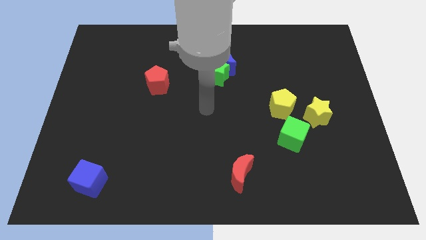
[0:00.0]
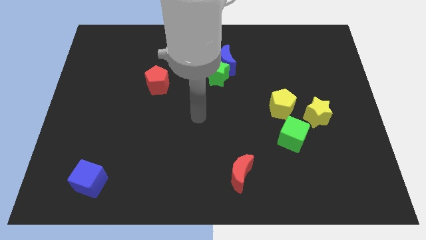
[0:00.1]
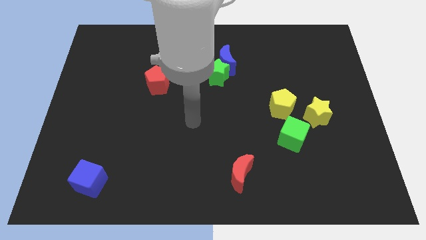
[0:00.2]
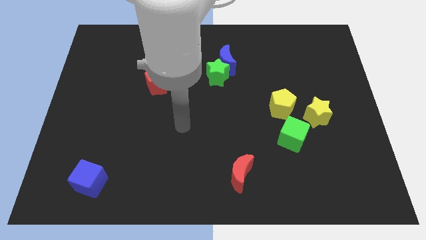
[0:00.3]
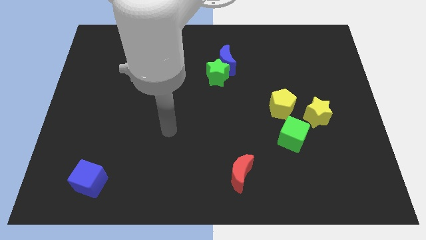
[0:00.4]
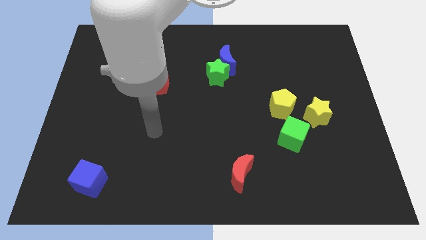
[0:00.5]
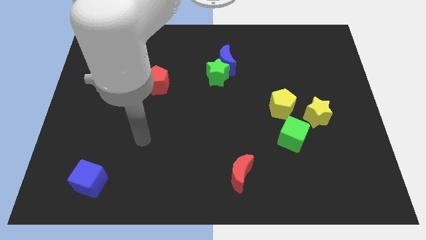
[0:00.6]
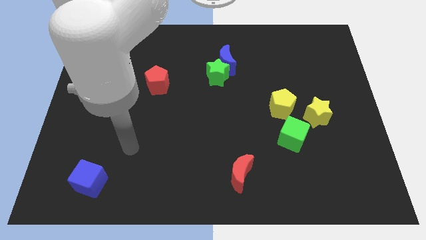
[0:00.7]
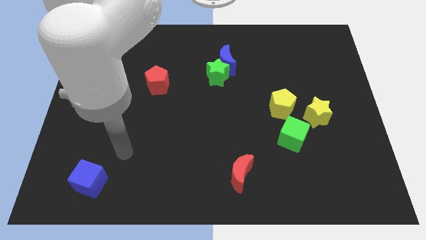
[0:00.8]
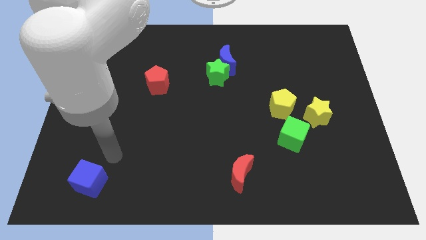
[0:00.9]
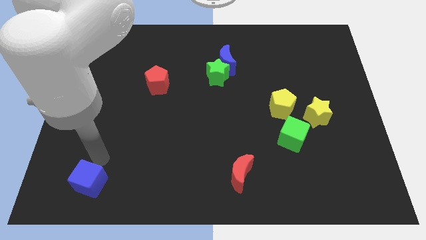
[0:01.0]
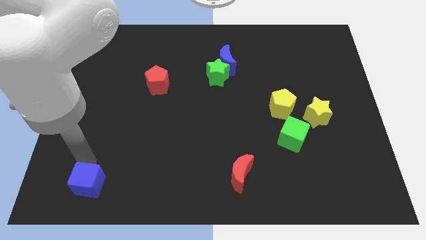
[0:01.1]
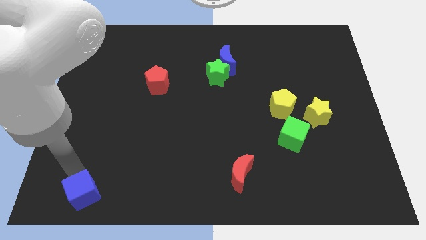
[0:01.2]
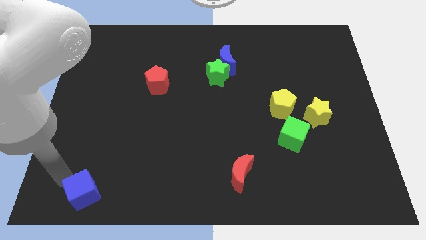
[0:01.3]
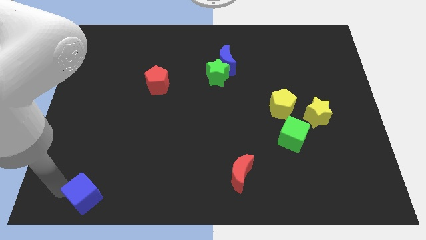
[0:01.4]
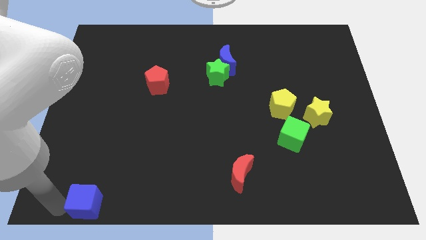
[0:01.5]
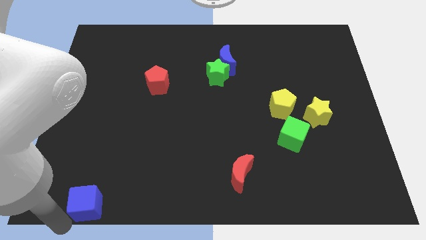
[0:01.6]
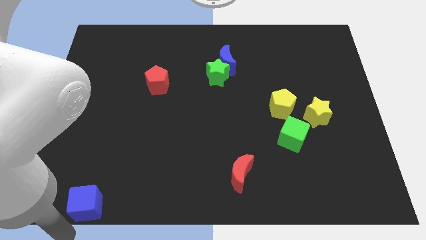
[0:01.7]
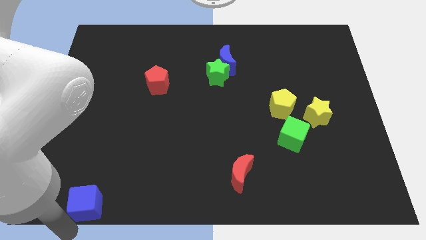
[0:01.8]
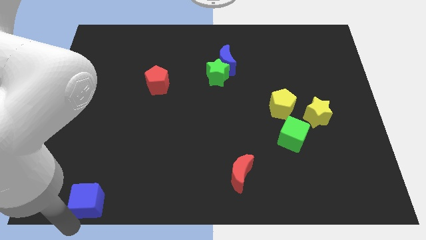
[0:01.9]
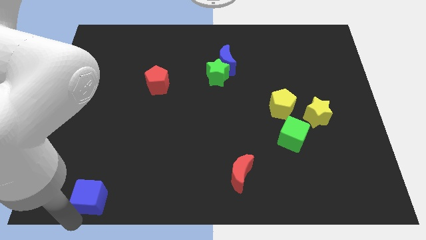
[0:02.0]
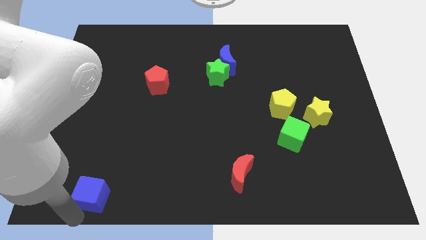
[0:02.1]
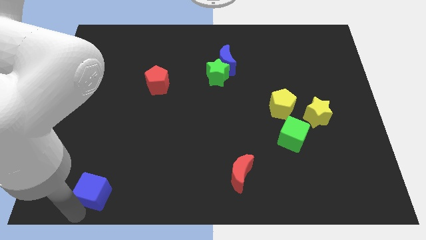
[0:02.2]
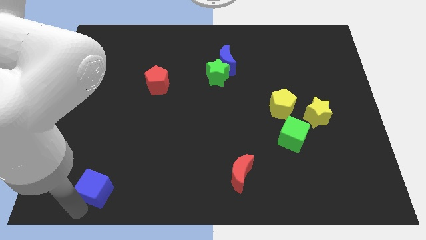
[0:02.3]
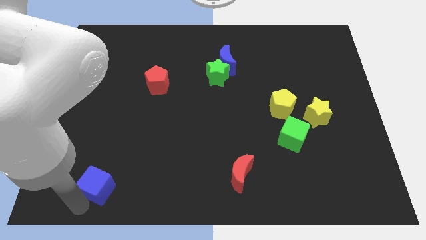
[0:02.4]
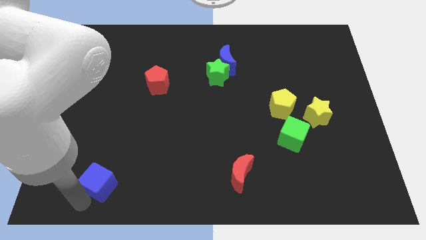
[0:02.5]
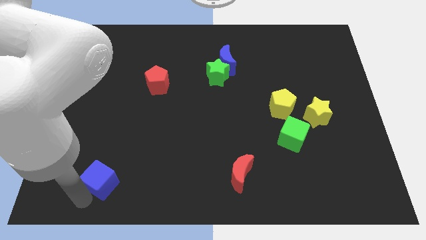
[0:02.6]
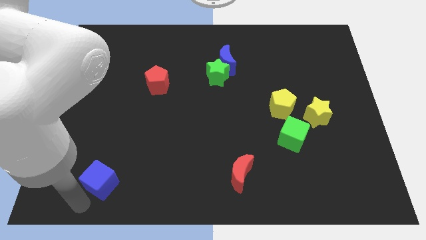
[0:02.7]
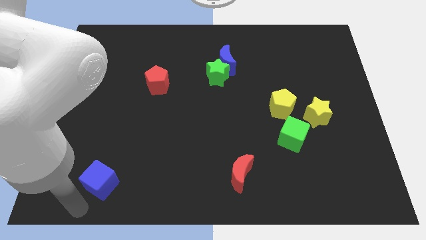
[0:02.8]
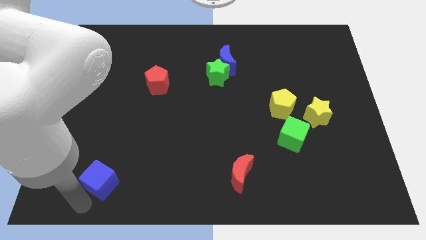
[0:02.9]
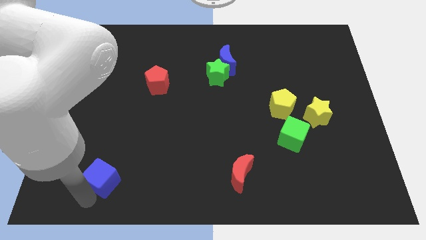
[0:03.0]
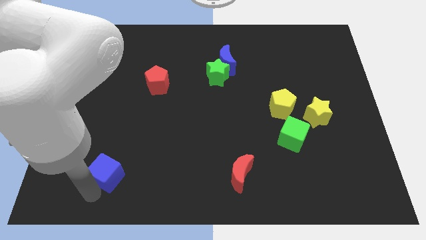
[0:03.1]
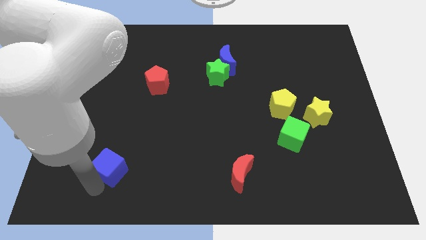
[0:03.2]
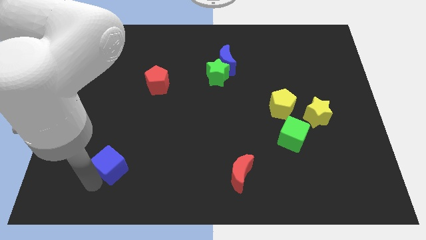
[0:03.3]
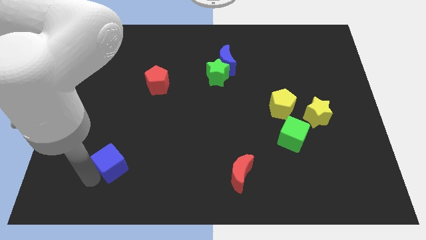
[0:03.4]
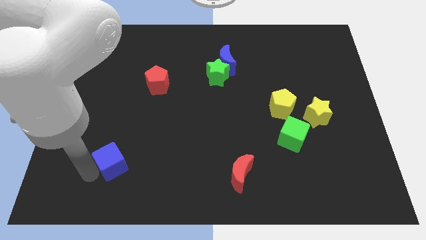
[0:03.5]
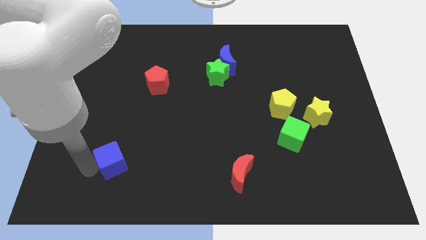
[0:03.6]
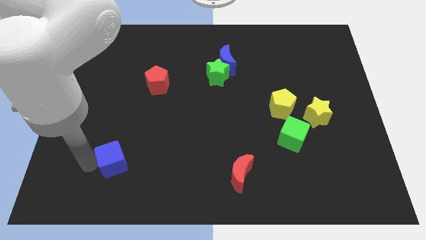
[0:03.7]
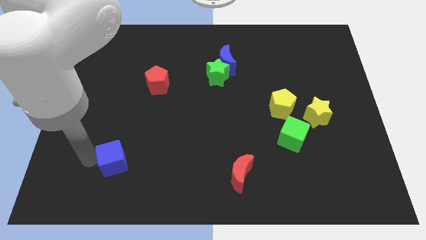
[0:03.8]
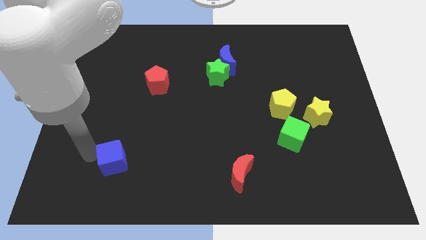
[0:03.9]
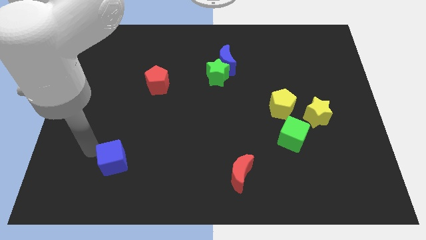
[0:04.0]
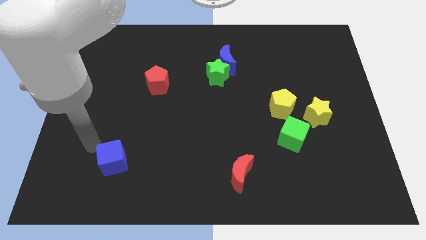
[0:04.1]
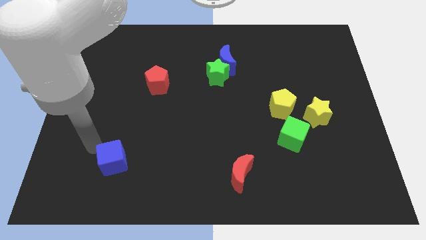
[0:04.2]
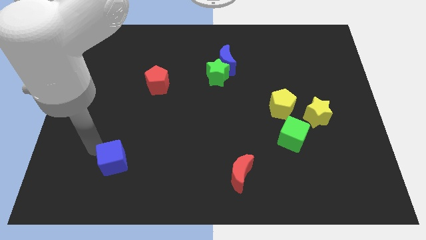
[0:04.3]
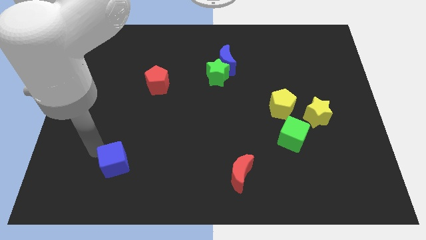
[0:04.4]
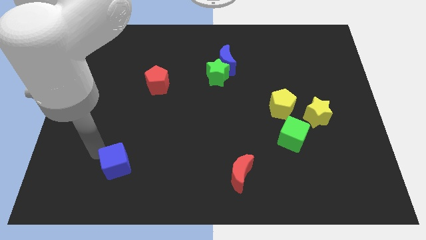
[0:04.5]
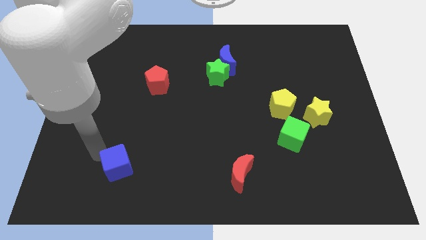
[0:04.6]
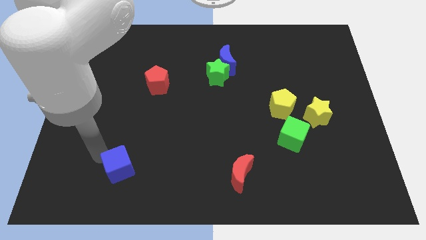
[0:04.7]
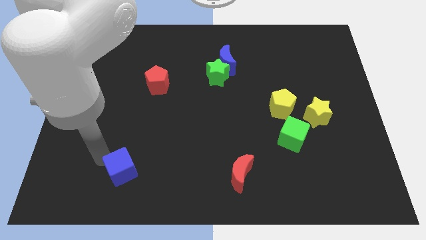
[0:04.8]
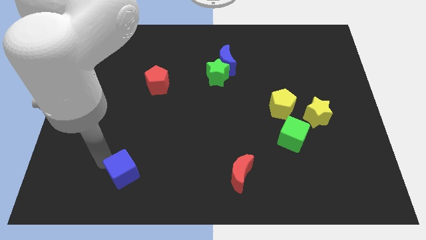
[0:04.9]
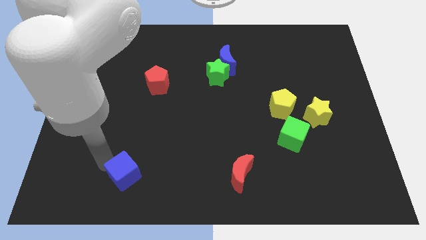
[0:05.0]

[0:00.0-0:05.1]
push the blue cube to the right a little bit

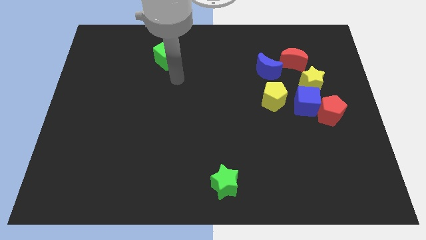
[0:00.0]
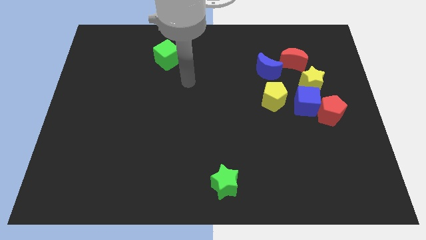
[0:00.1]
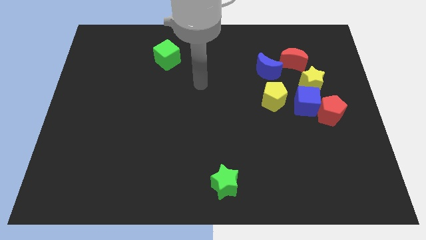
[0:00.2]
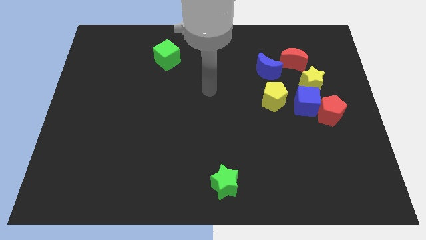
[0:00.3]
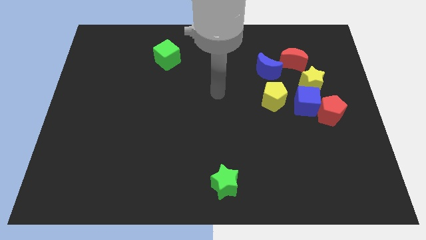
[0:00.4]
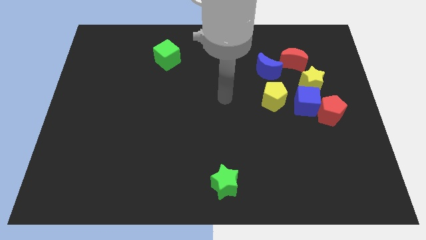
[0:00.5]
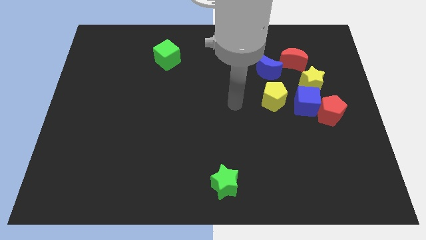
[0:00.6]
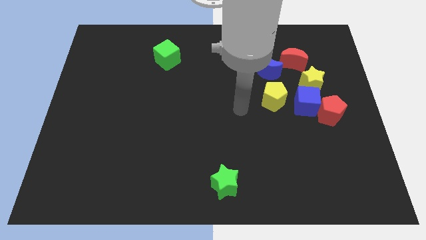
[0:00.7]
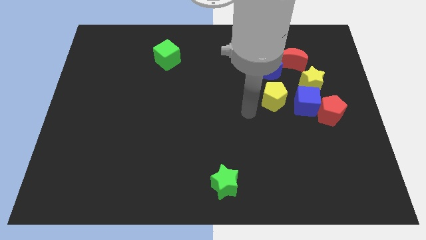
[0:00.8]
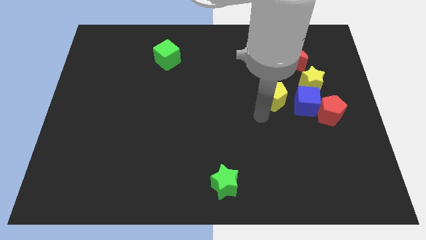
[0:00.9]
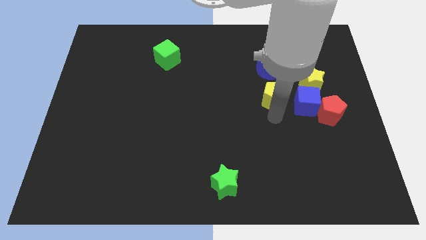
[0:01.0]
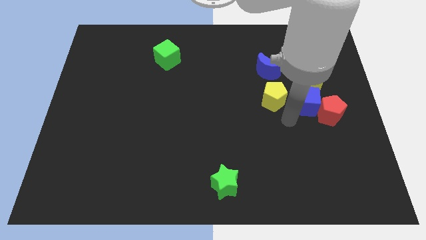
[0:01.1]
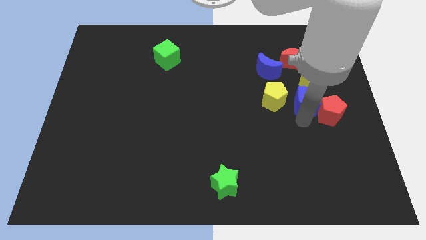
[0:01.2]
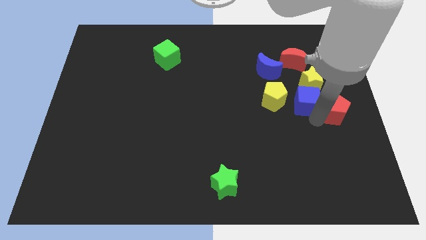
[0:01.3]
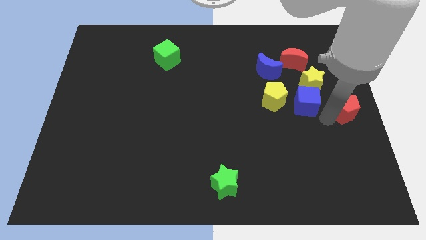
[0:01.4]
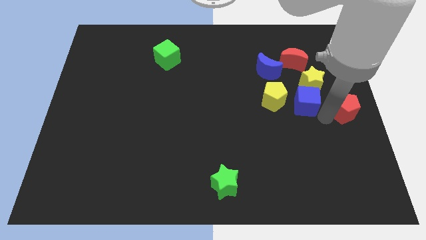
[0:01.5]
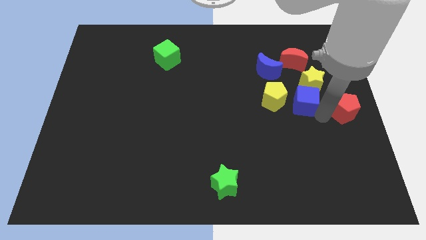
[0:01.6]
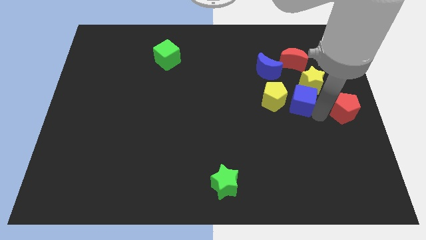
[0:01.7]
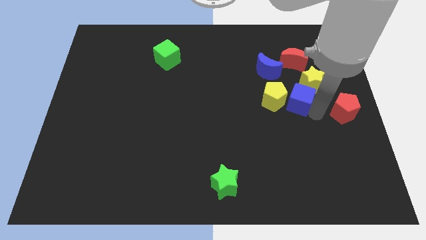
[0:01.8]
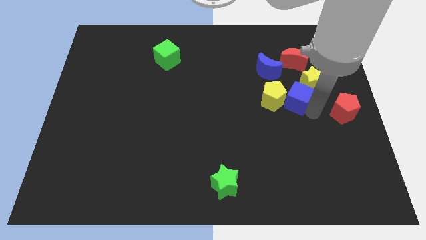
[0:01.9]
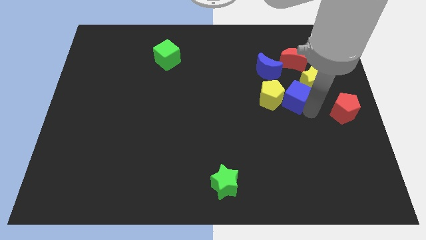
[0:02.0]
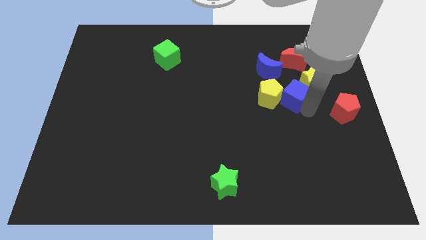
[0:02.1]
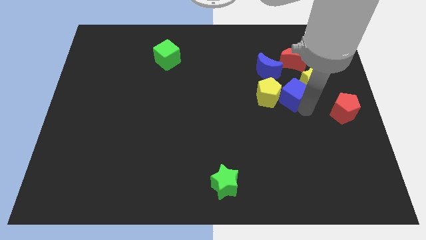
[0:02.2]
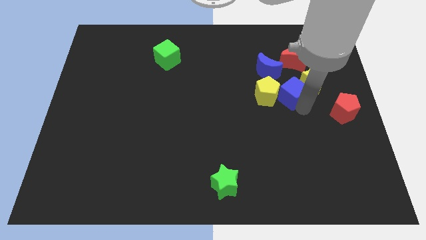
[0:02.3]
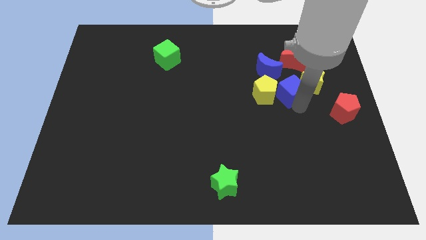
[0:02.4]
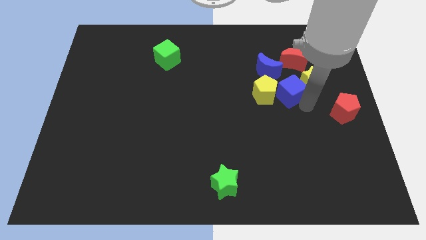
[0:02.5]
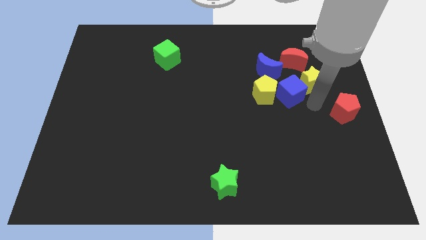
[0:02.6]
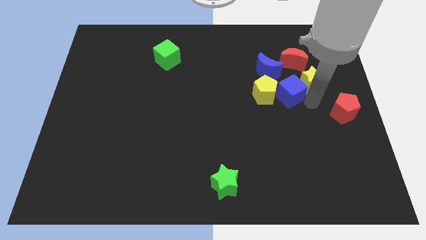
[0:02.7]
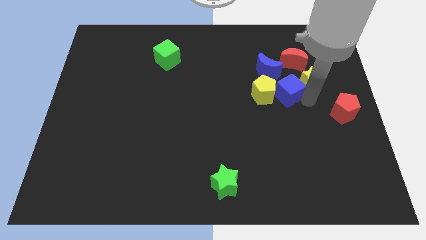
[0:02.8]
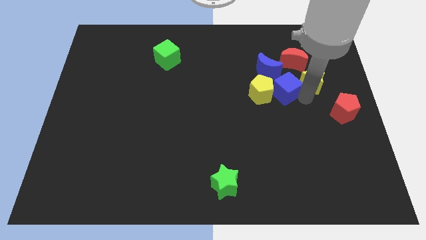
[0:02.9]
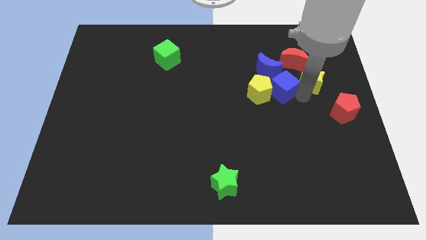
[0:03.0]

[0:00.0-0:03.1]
move the blue cube a little upwards and then left
